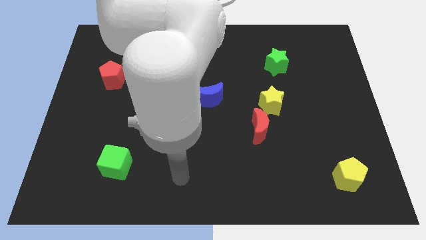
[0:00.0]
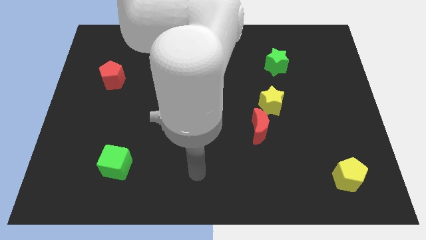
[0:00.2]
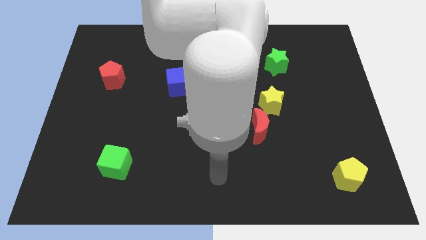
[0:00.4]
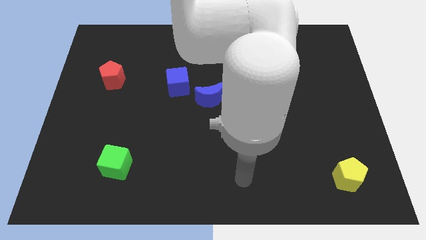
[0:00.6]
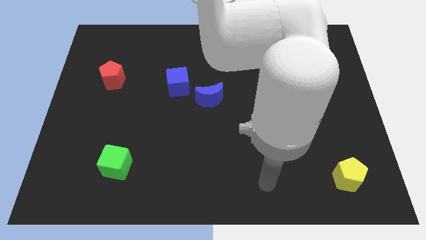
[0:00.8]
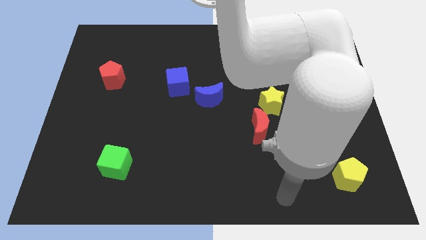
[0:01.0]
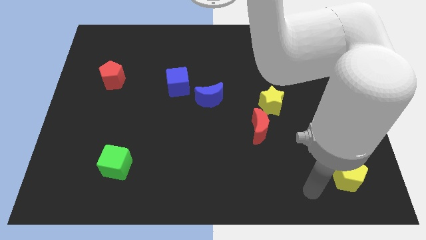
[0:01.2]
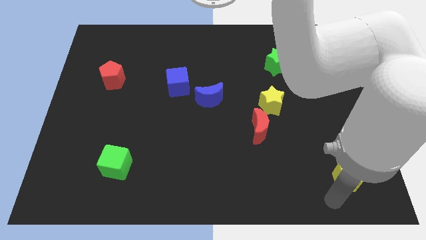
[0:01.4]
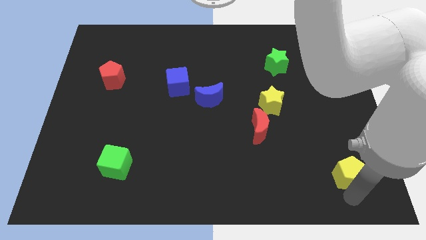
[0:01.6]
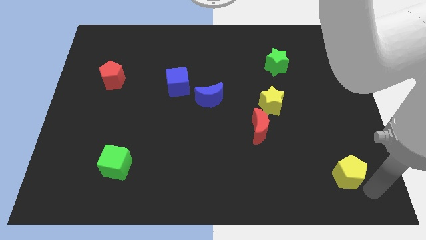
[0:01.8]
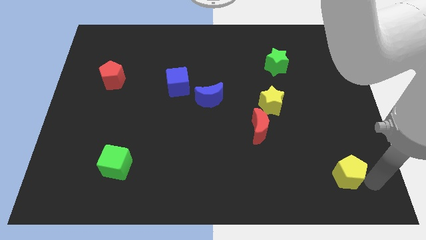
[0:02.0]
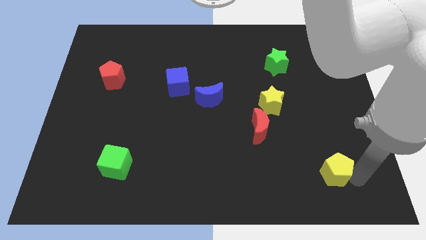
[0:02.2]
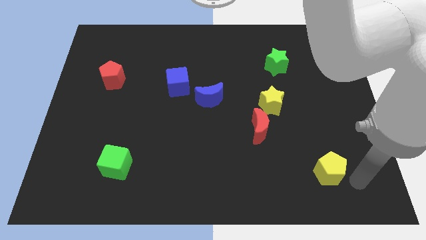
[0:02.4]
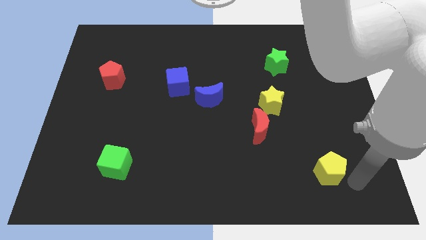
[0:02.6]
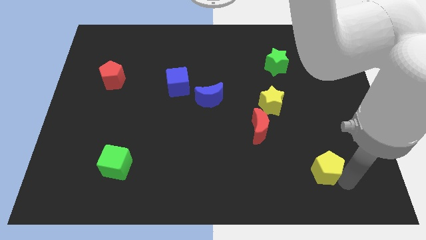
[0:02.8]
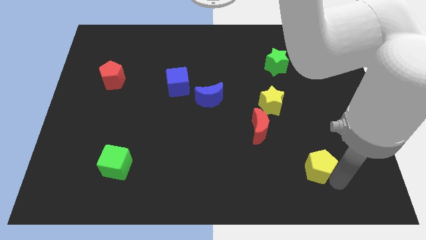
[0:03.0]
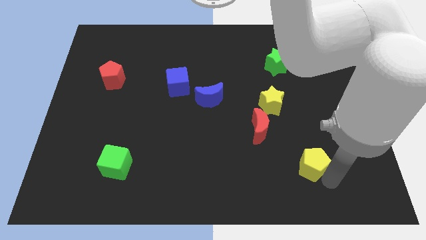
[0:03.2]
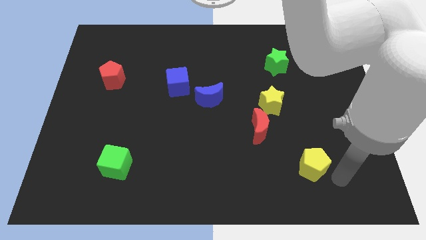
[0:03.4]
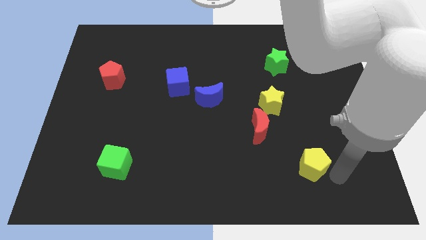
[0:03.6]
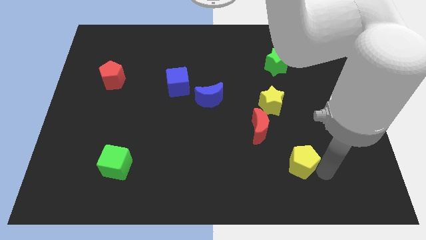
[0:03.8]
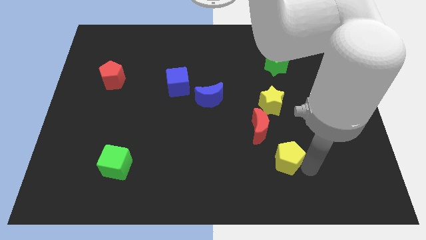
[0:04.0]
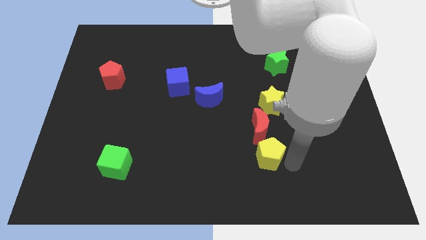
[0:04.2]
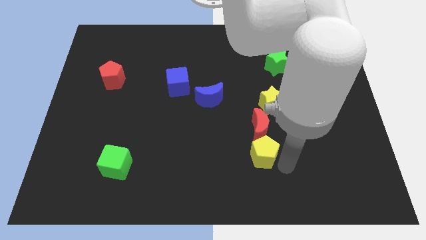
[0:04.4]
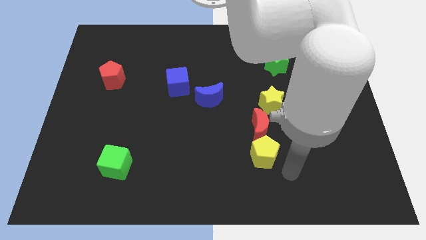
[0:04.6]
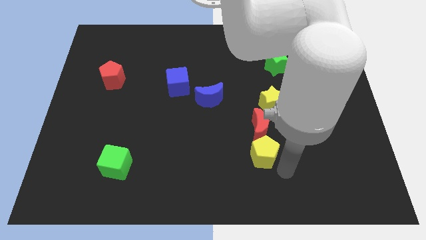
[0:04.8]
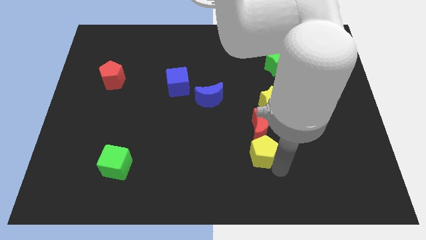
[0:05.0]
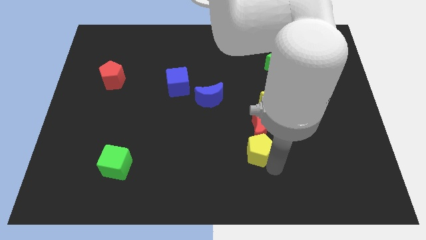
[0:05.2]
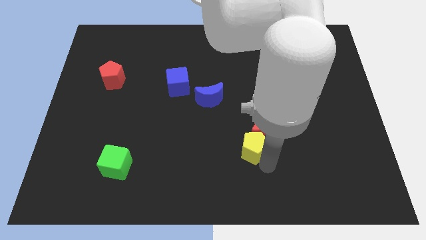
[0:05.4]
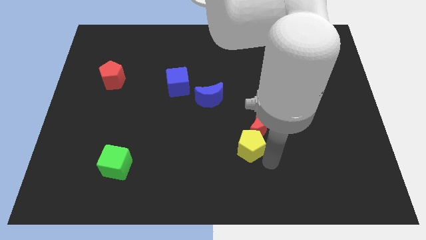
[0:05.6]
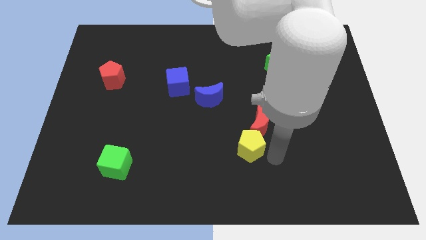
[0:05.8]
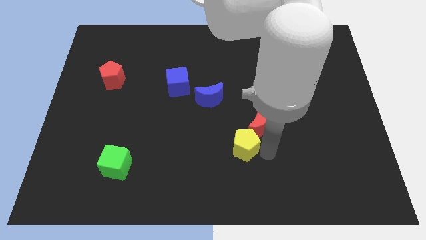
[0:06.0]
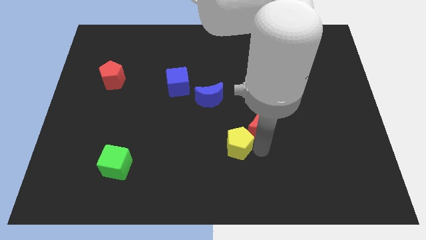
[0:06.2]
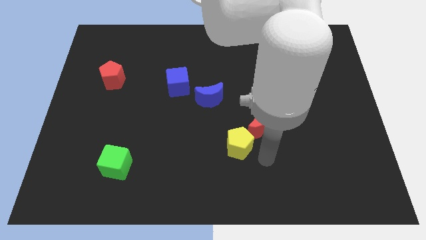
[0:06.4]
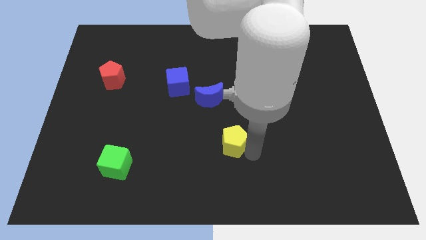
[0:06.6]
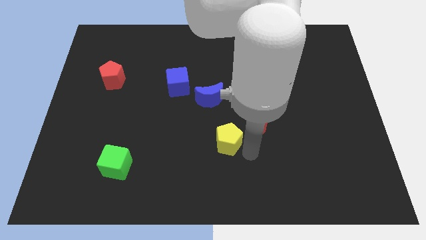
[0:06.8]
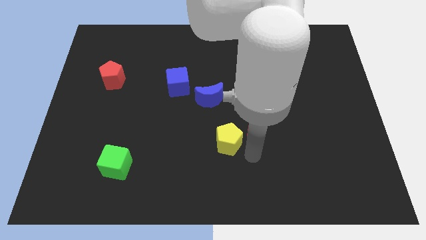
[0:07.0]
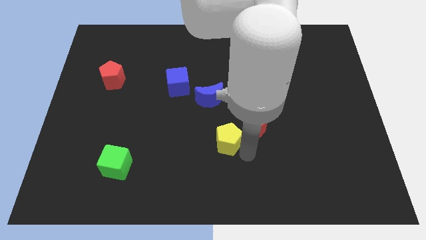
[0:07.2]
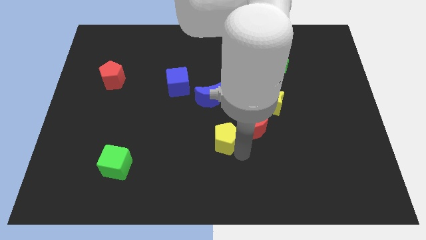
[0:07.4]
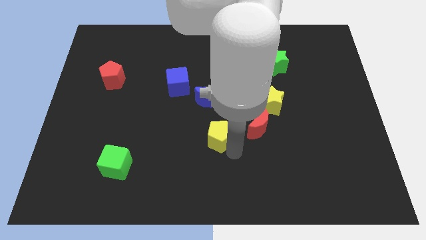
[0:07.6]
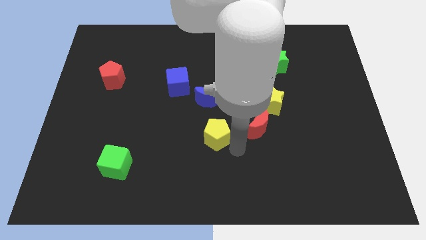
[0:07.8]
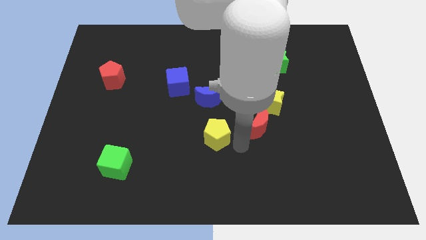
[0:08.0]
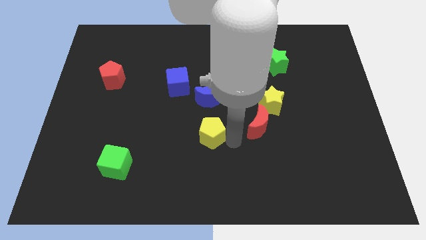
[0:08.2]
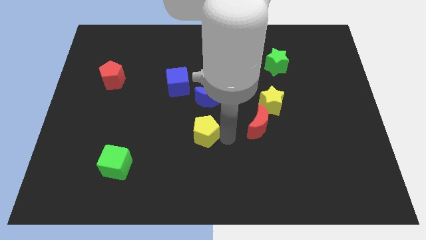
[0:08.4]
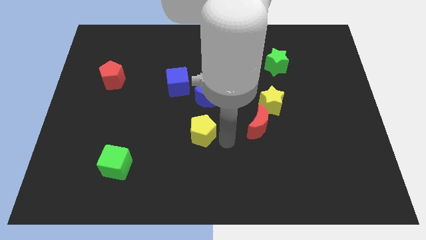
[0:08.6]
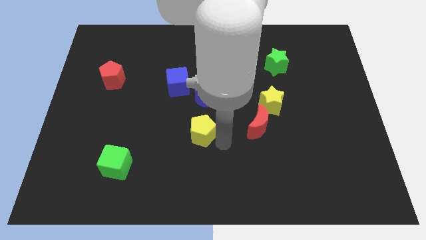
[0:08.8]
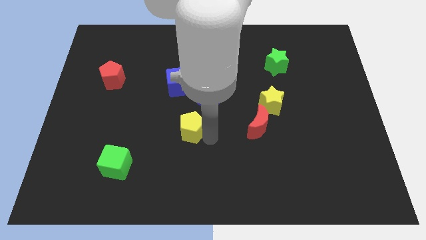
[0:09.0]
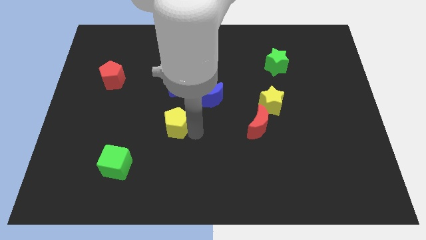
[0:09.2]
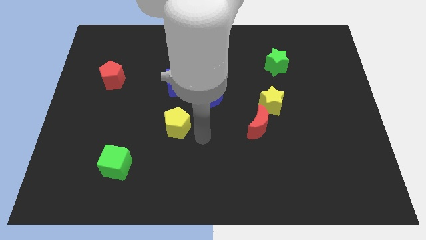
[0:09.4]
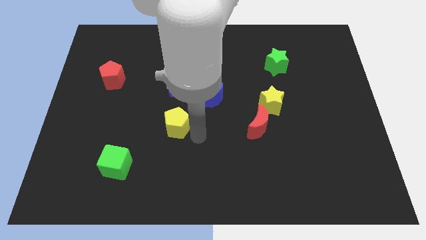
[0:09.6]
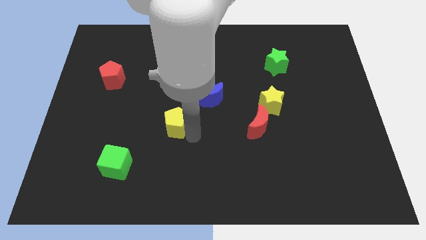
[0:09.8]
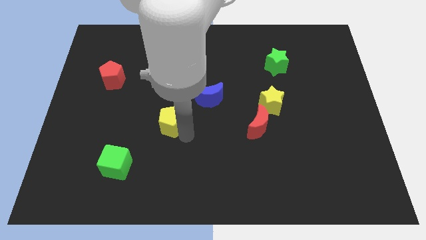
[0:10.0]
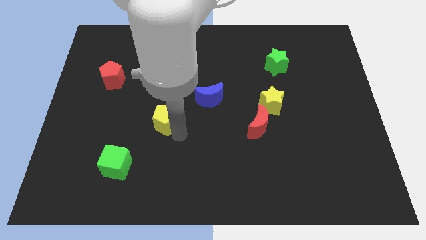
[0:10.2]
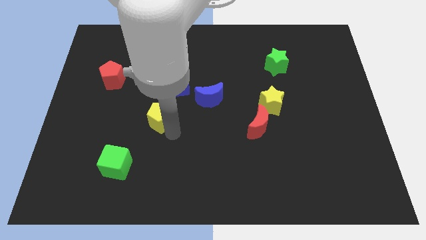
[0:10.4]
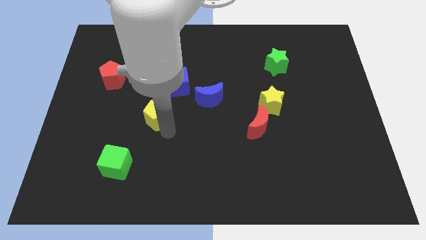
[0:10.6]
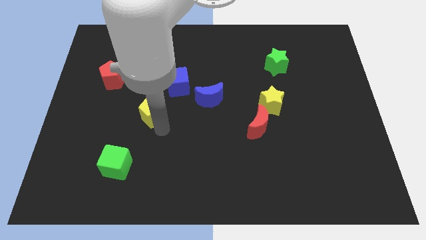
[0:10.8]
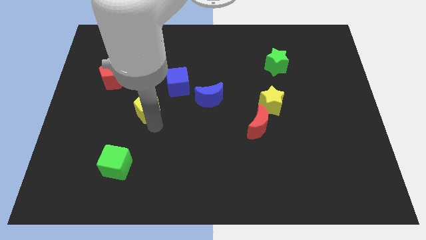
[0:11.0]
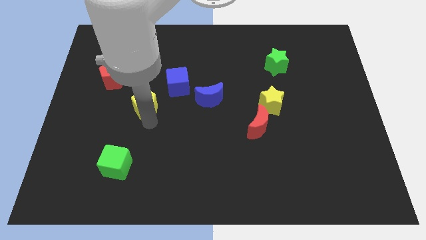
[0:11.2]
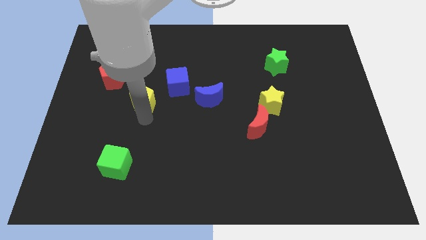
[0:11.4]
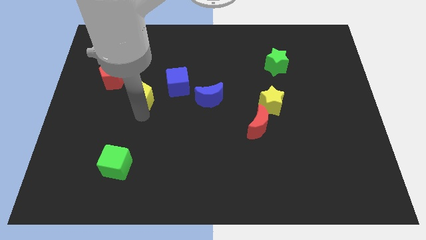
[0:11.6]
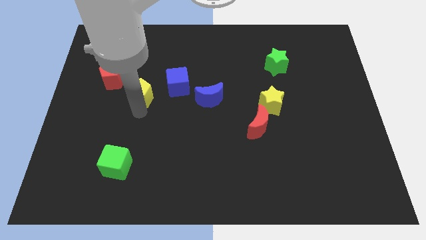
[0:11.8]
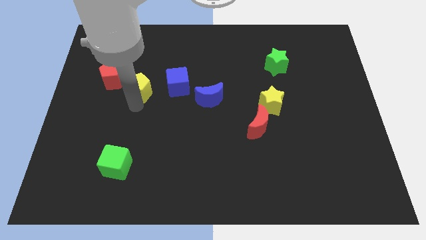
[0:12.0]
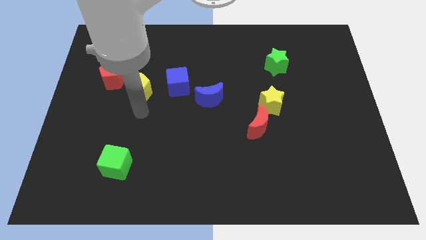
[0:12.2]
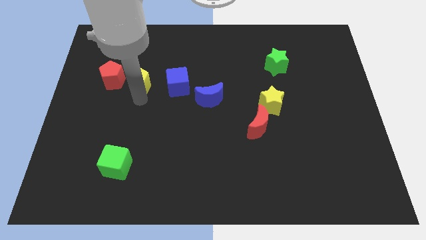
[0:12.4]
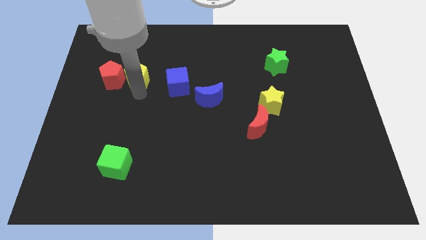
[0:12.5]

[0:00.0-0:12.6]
push the yellow pentagon to the top right of the red pentagon

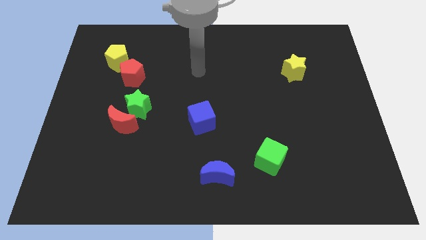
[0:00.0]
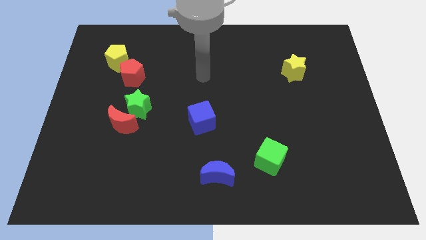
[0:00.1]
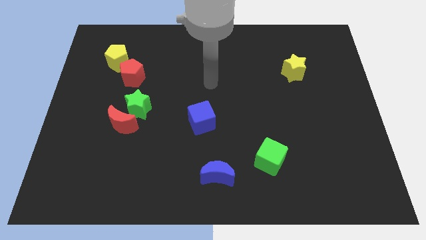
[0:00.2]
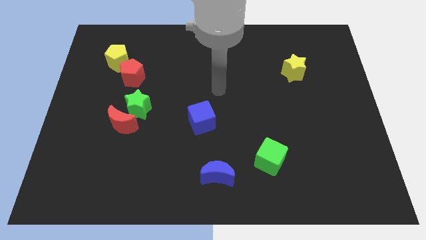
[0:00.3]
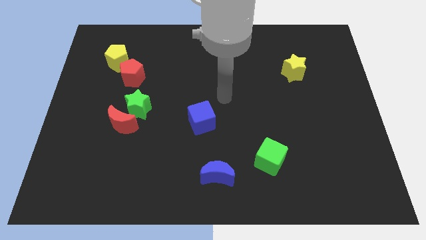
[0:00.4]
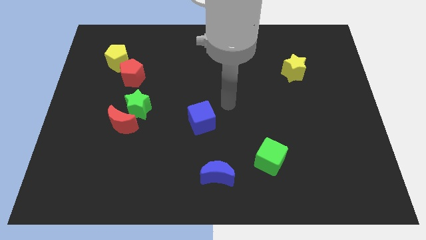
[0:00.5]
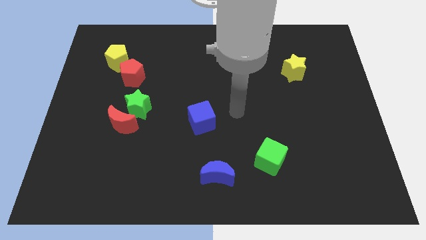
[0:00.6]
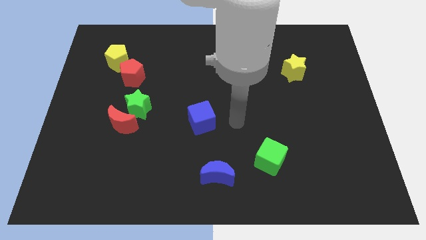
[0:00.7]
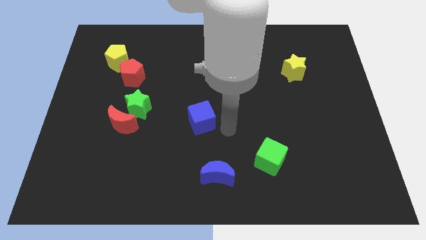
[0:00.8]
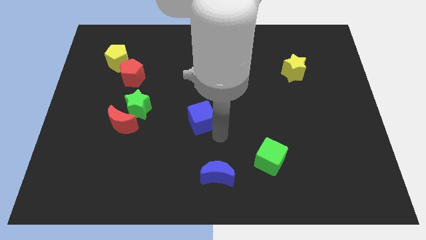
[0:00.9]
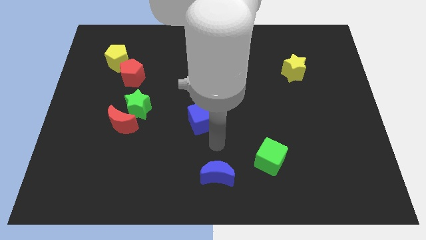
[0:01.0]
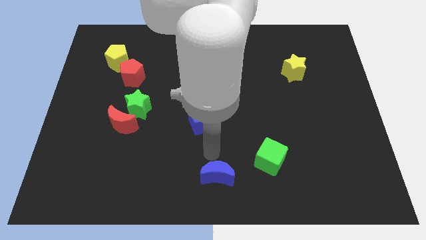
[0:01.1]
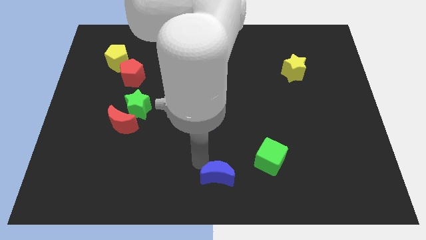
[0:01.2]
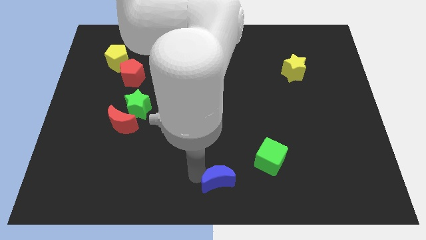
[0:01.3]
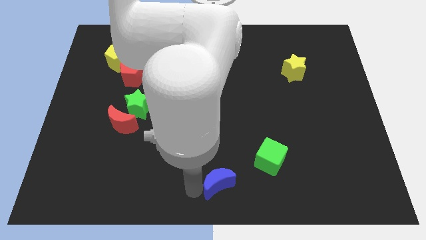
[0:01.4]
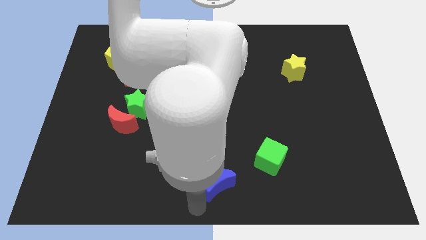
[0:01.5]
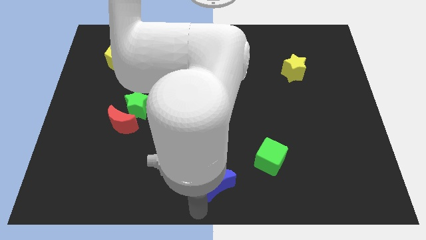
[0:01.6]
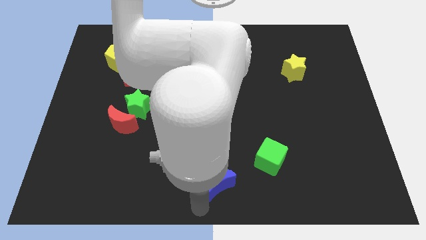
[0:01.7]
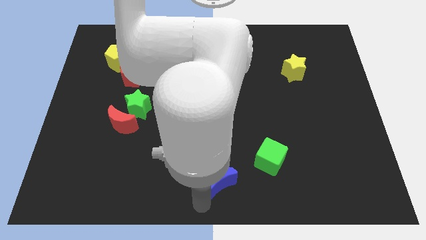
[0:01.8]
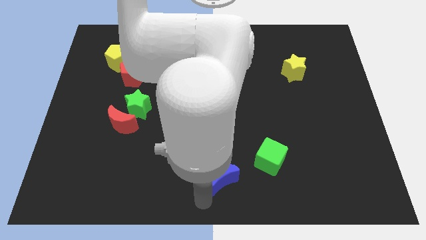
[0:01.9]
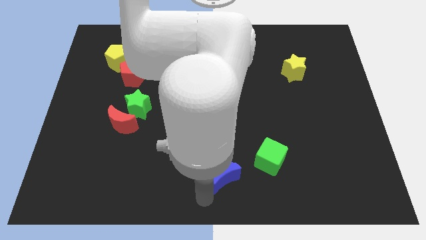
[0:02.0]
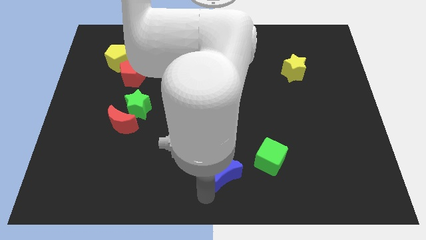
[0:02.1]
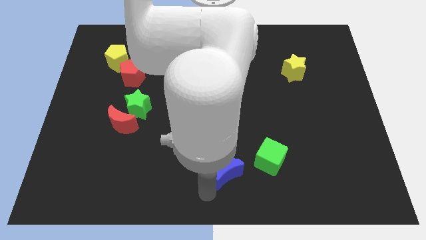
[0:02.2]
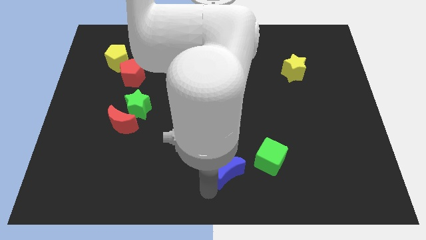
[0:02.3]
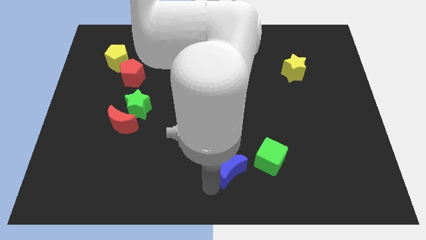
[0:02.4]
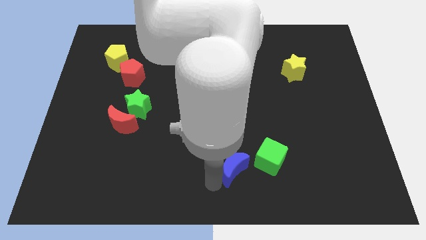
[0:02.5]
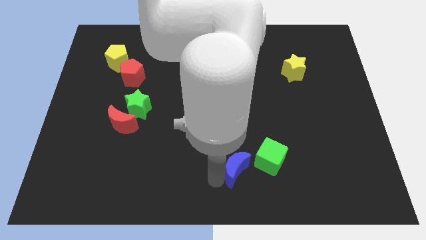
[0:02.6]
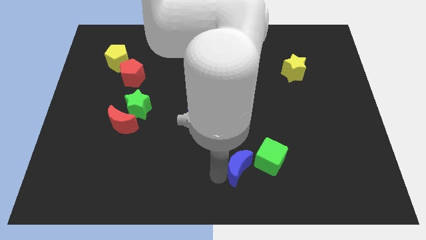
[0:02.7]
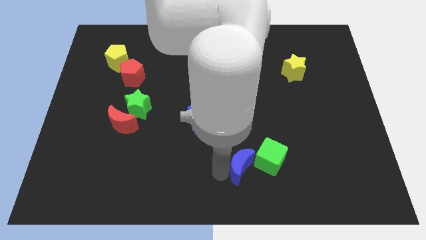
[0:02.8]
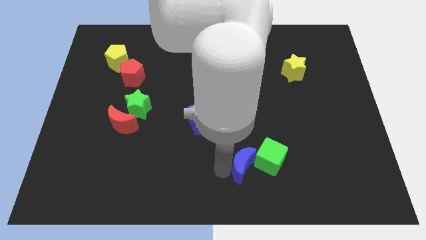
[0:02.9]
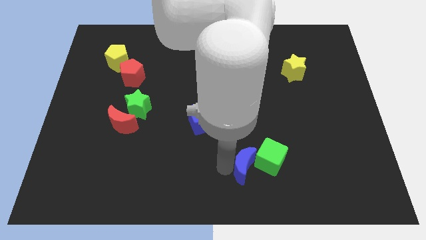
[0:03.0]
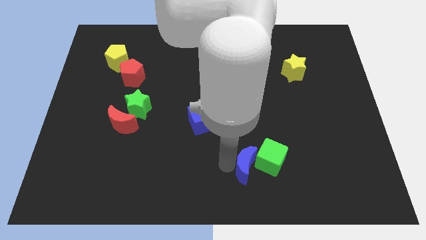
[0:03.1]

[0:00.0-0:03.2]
slide the blue moon diagonally up and to the left of the green cube
